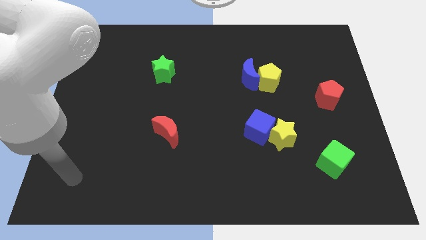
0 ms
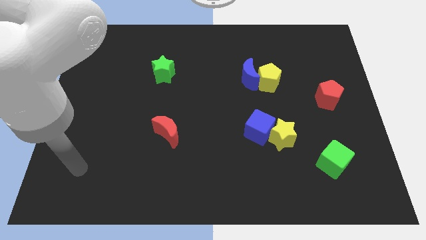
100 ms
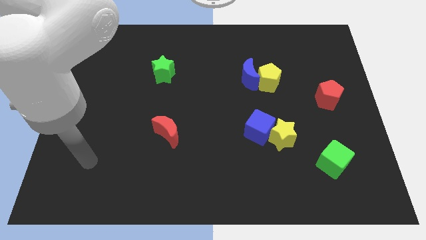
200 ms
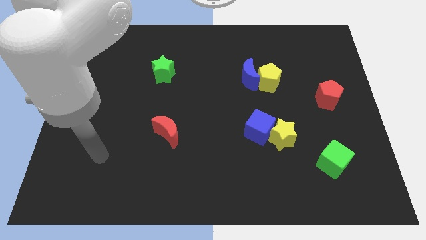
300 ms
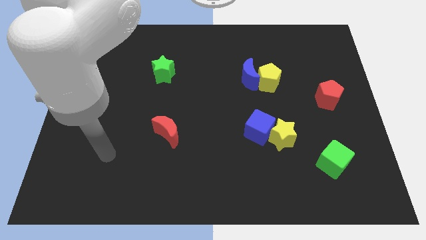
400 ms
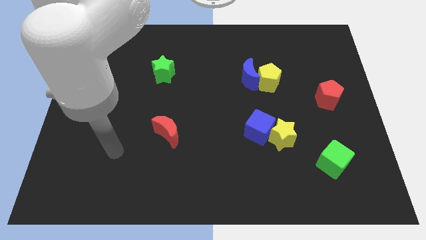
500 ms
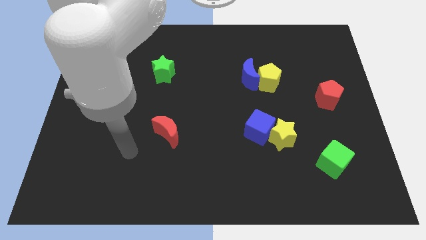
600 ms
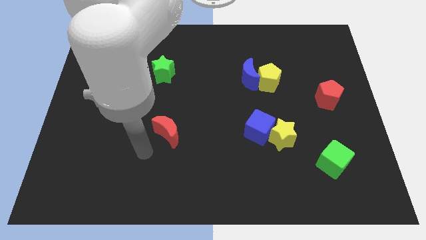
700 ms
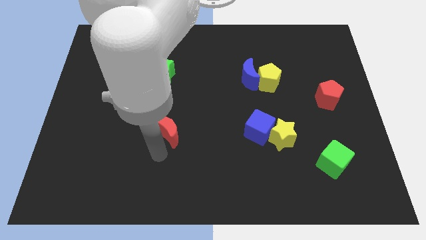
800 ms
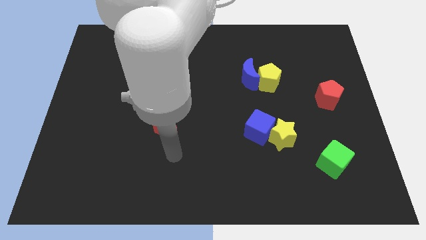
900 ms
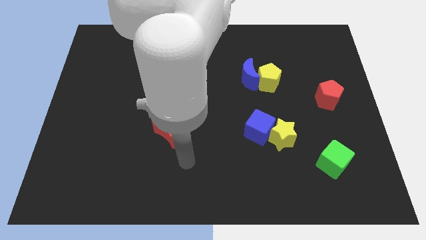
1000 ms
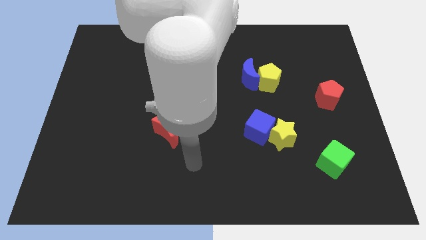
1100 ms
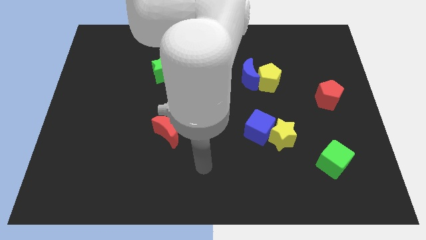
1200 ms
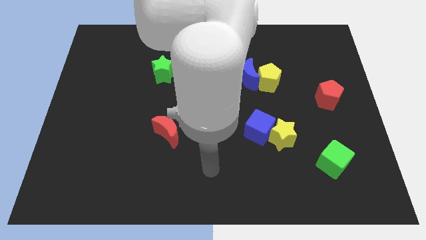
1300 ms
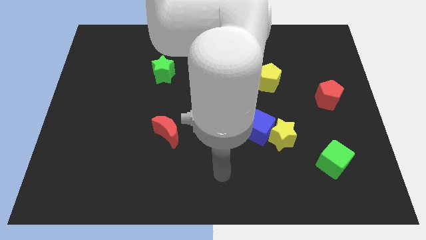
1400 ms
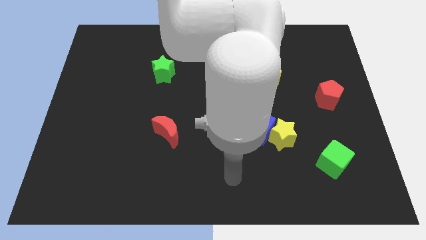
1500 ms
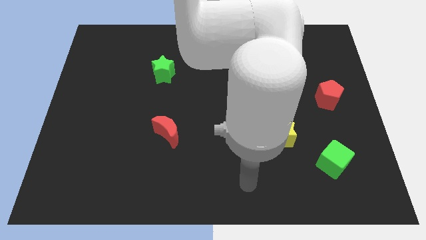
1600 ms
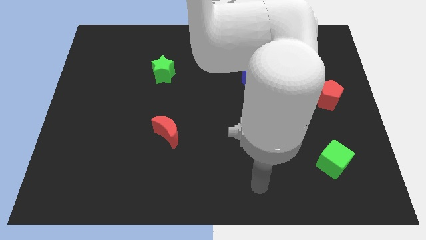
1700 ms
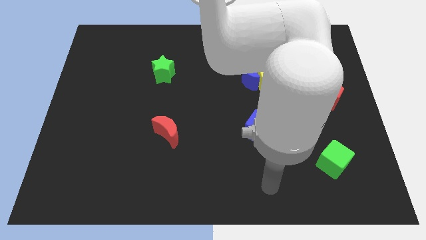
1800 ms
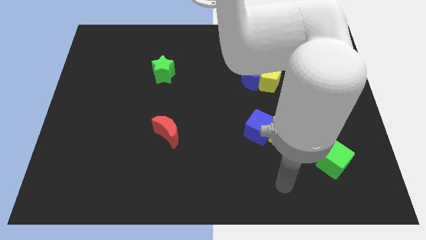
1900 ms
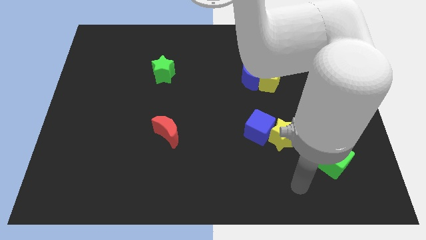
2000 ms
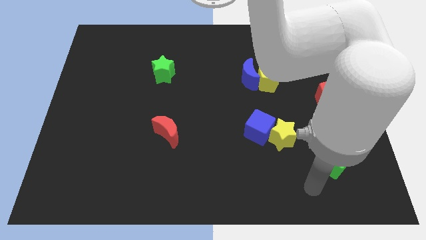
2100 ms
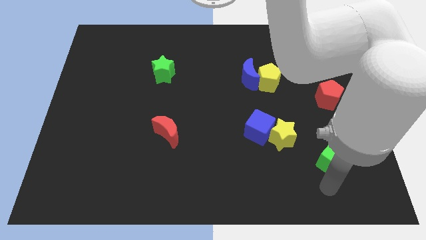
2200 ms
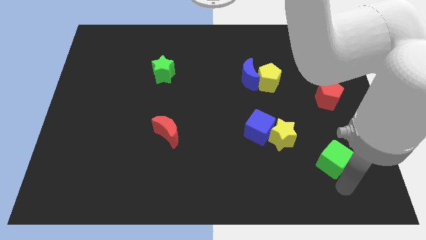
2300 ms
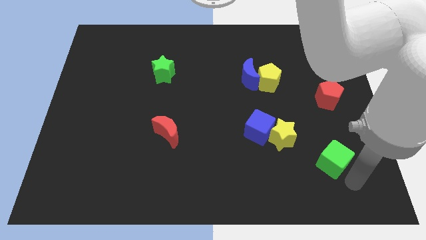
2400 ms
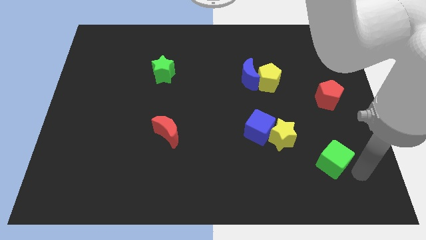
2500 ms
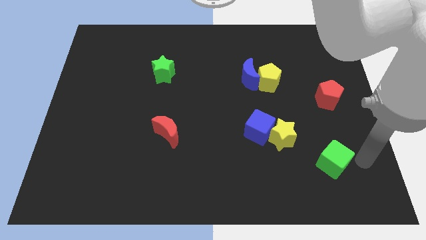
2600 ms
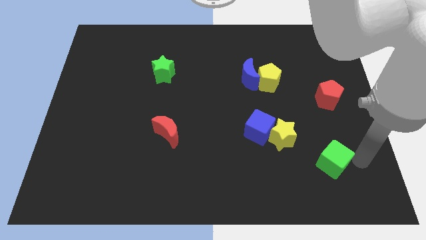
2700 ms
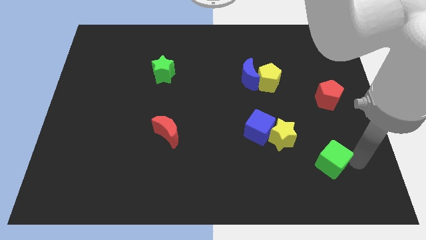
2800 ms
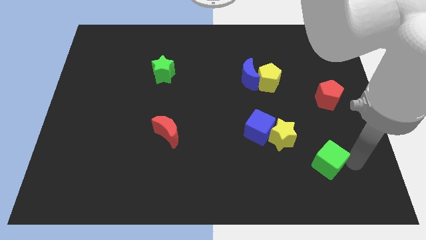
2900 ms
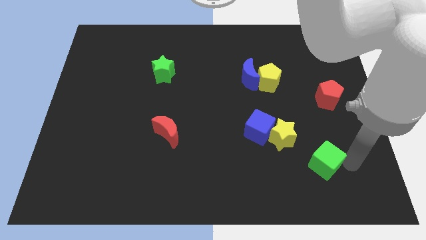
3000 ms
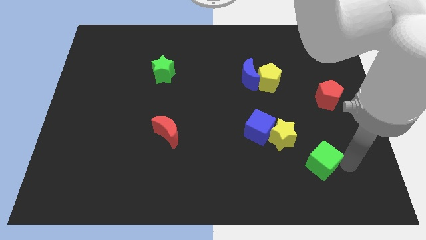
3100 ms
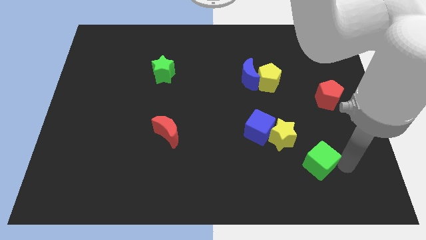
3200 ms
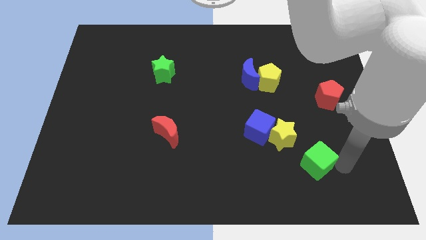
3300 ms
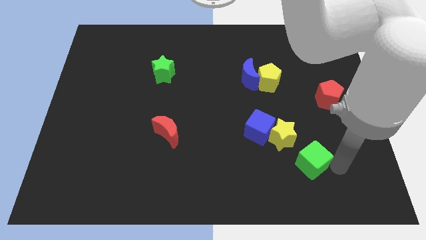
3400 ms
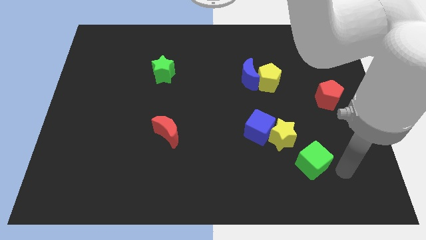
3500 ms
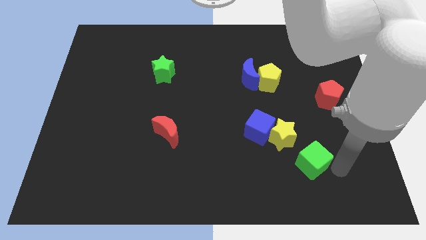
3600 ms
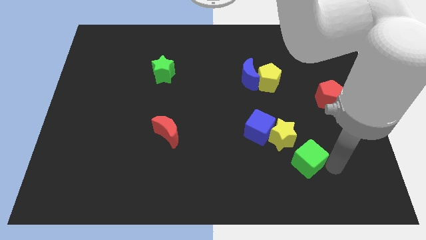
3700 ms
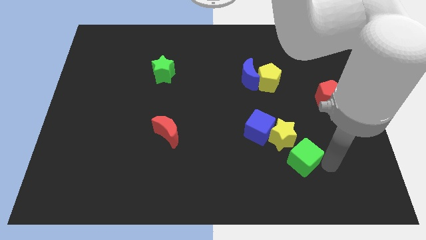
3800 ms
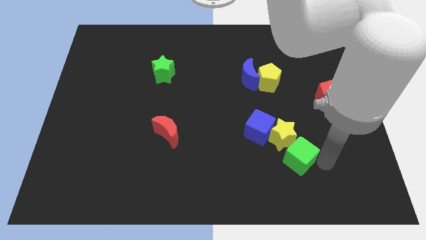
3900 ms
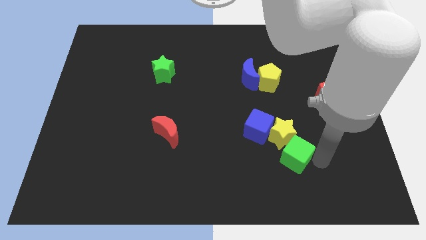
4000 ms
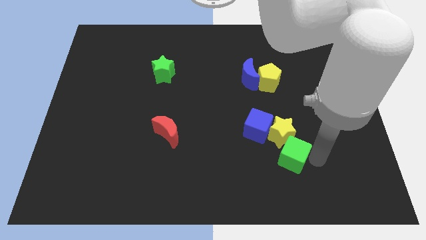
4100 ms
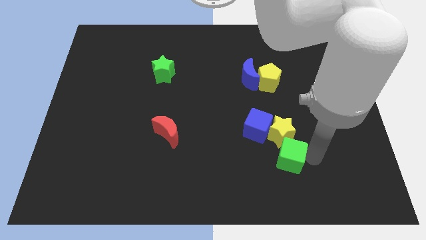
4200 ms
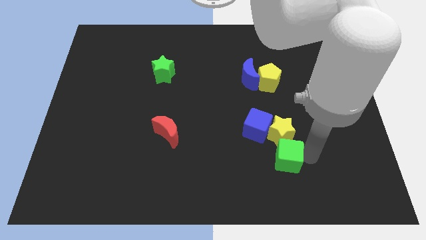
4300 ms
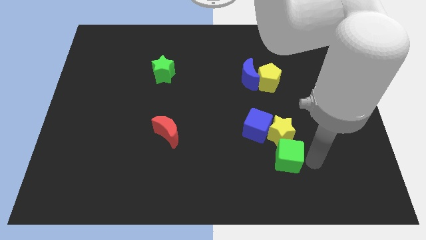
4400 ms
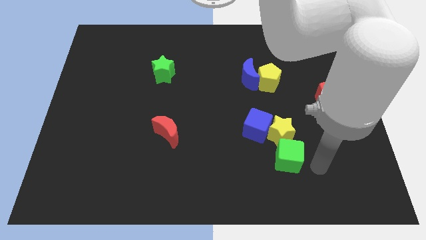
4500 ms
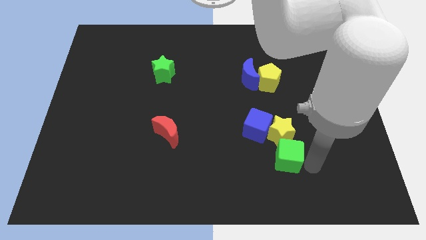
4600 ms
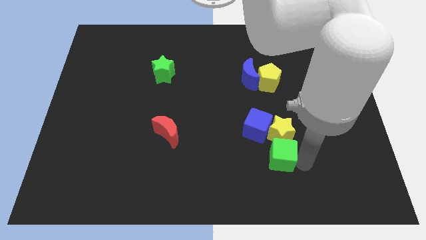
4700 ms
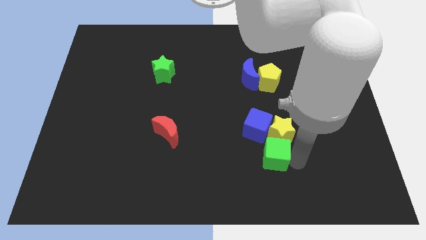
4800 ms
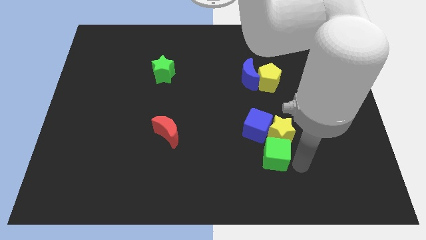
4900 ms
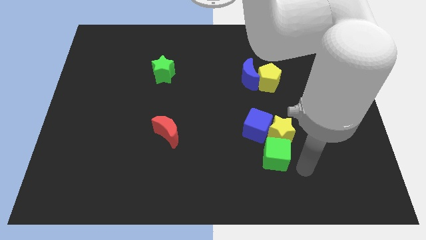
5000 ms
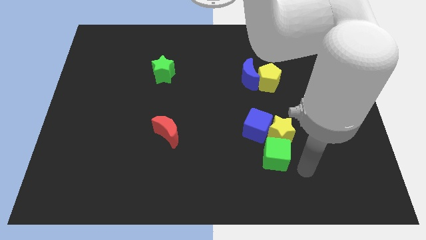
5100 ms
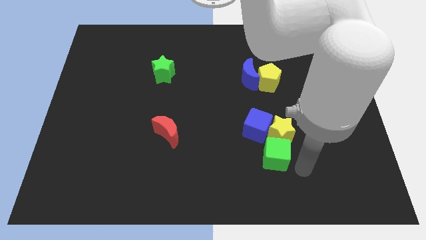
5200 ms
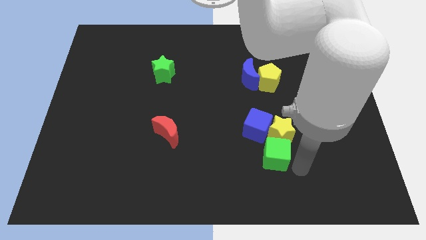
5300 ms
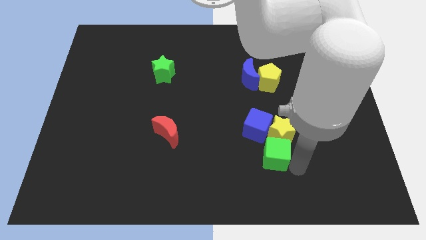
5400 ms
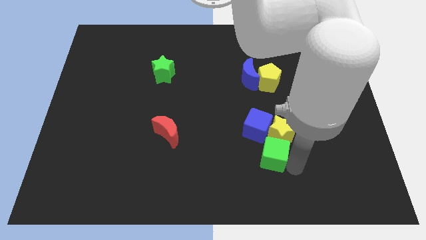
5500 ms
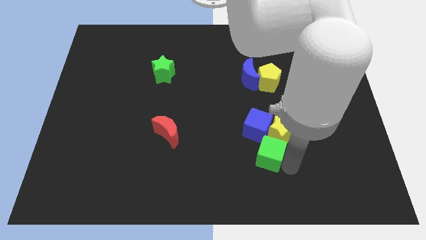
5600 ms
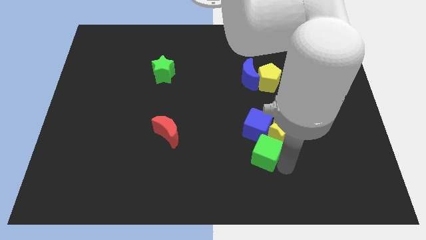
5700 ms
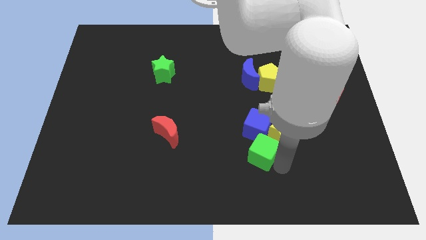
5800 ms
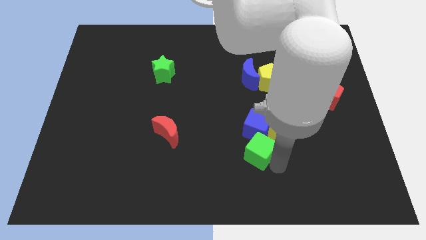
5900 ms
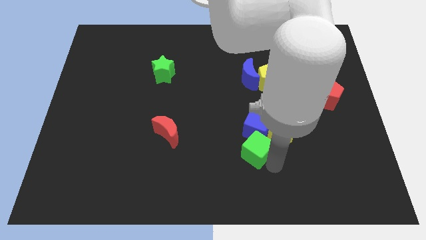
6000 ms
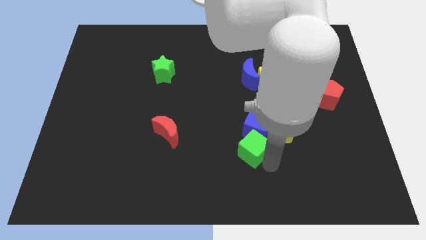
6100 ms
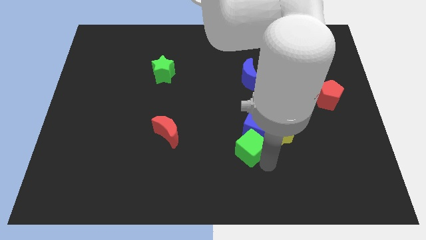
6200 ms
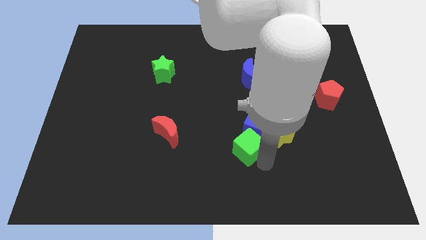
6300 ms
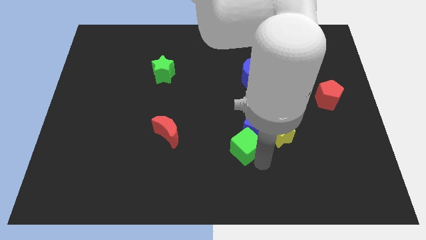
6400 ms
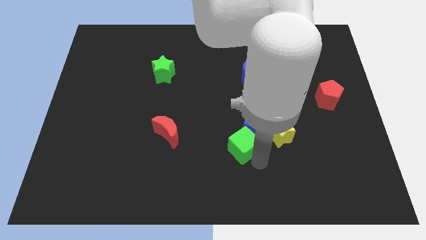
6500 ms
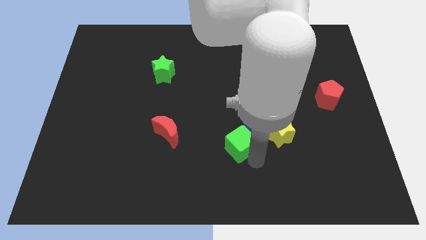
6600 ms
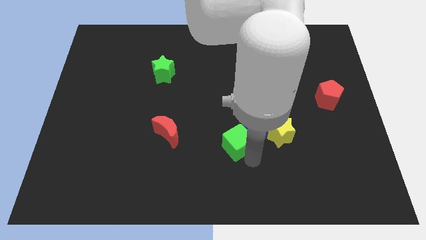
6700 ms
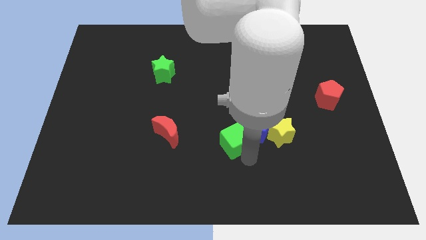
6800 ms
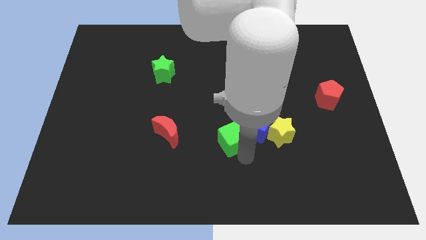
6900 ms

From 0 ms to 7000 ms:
move the green cube to the center of the board
